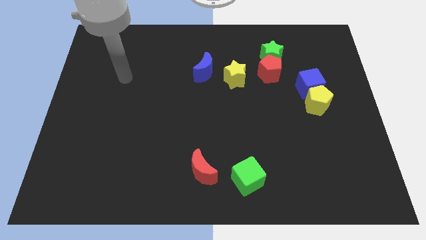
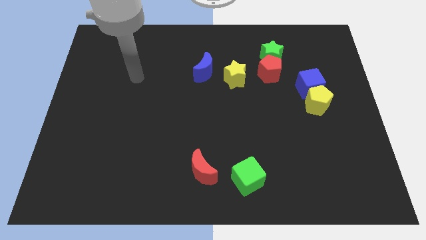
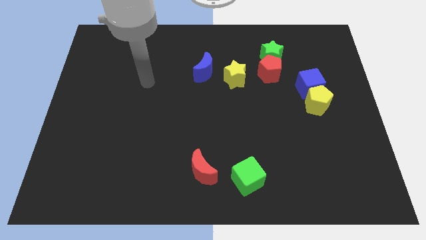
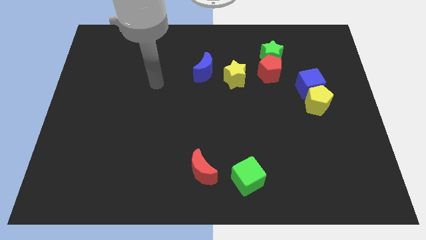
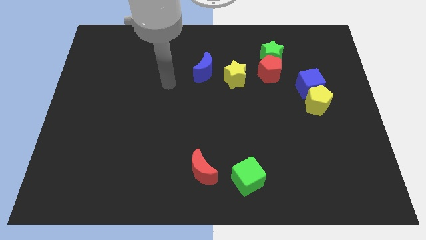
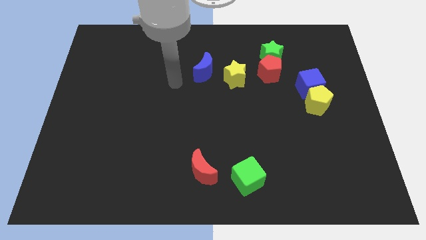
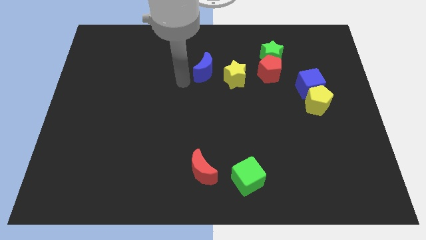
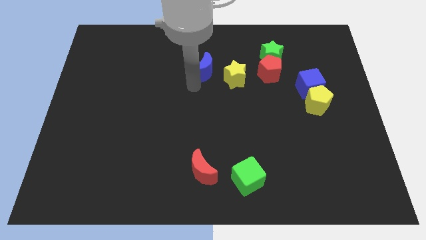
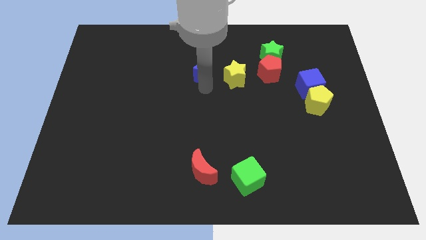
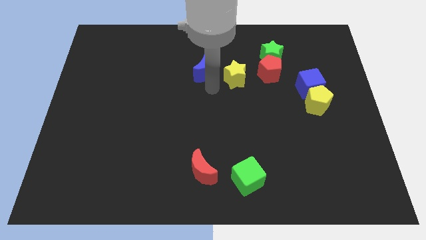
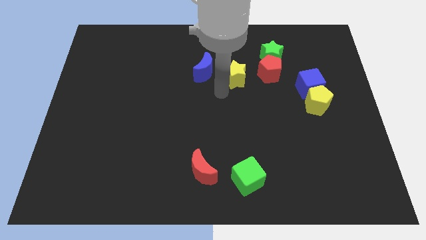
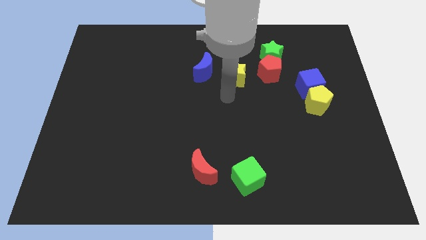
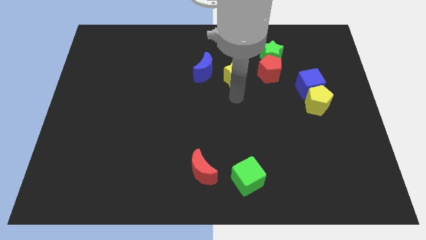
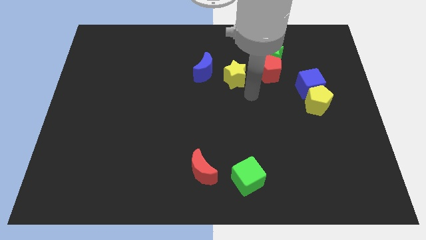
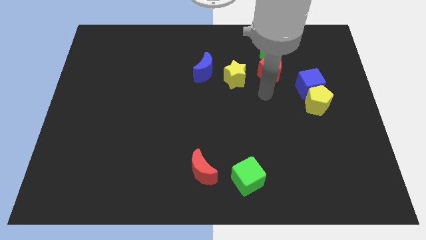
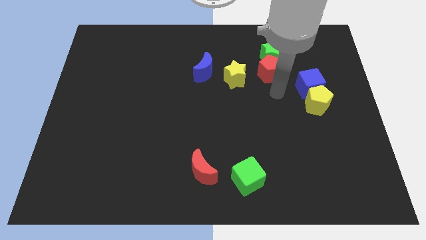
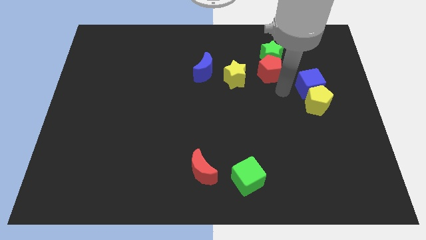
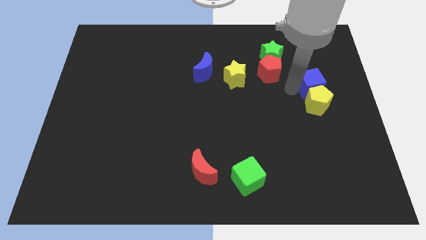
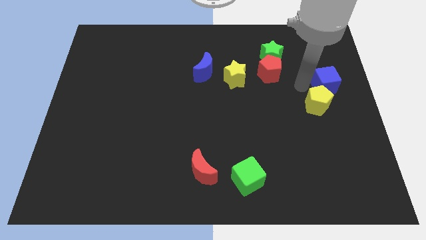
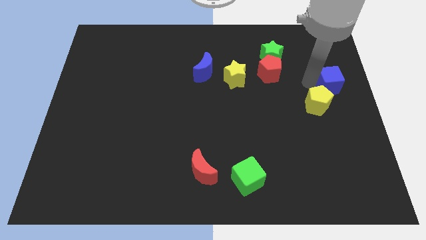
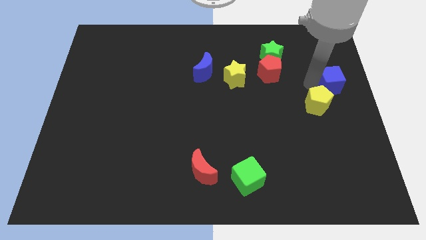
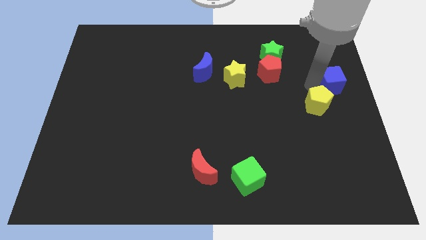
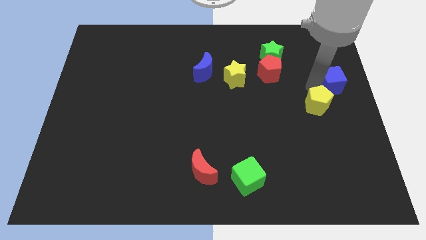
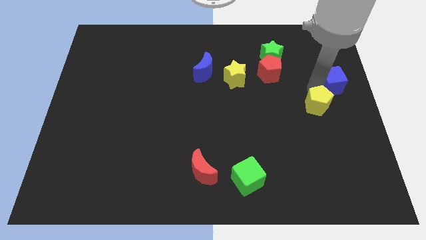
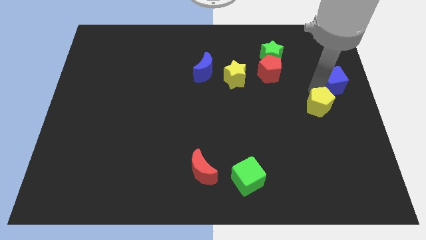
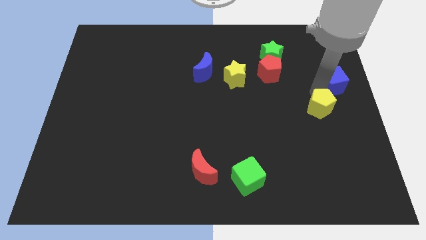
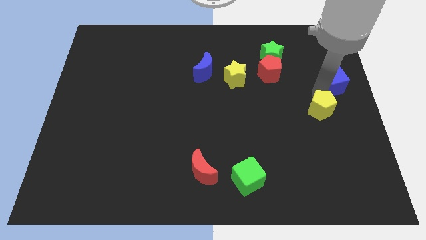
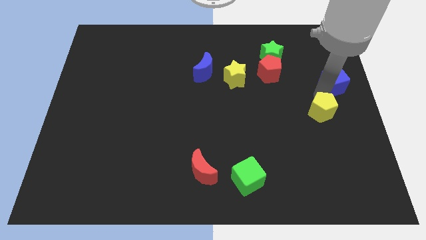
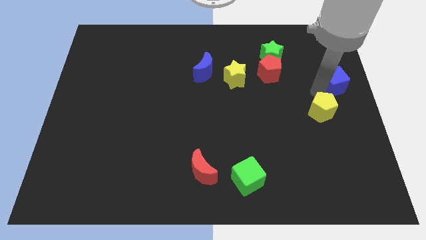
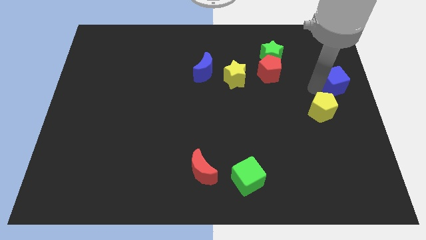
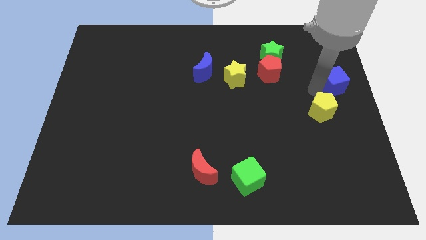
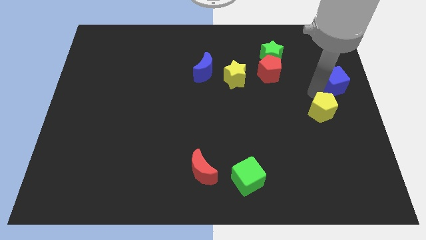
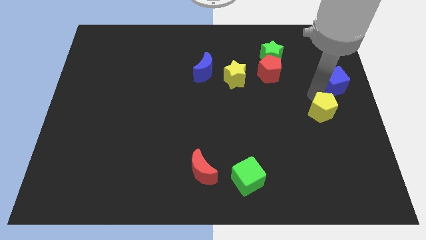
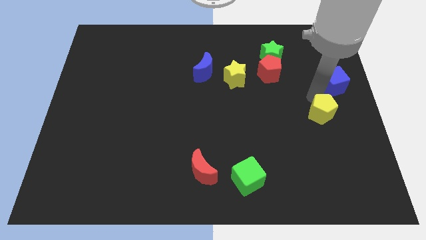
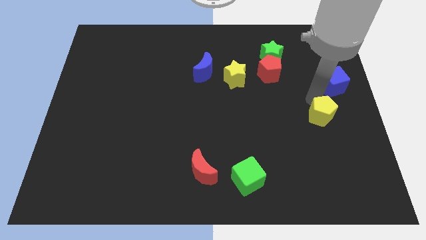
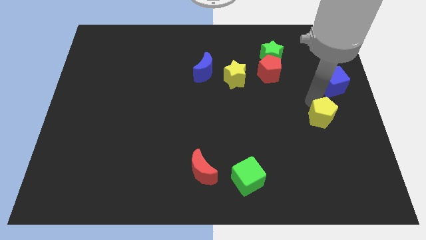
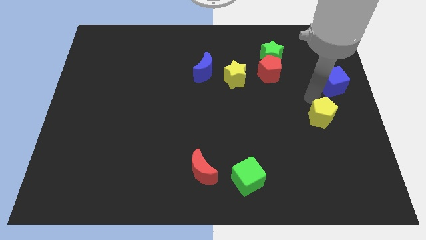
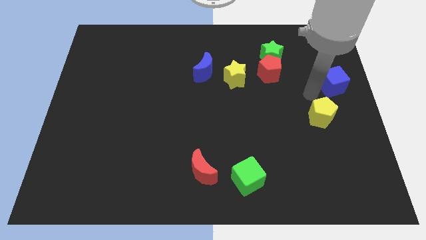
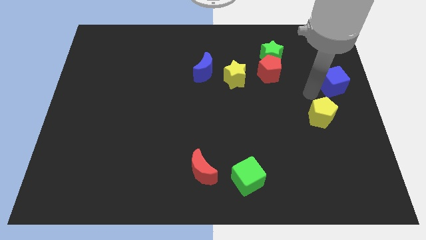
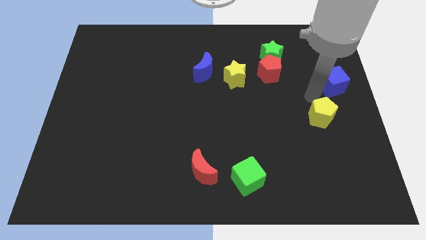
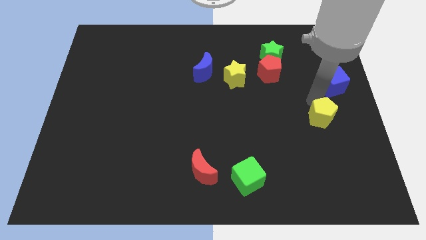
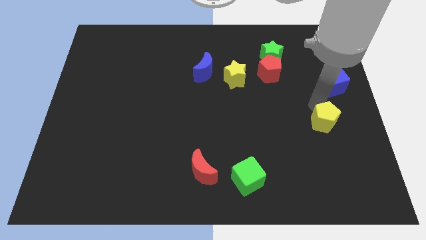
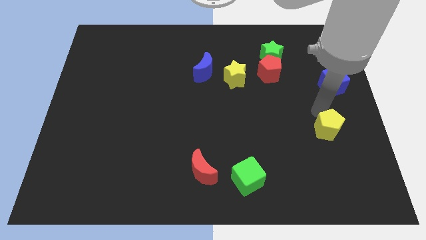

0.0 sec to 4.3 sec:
slightly push the yellow pentagon down

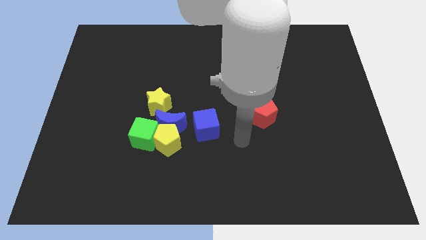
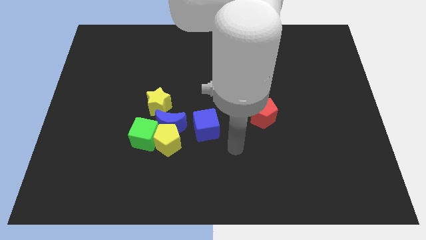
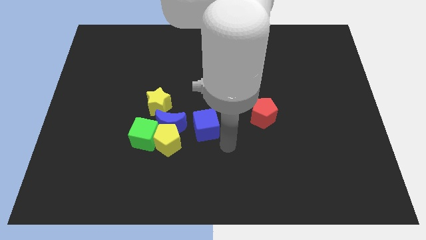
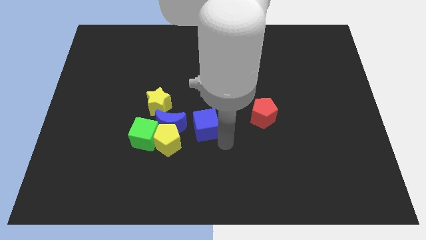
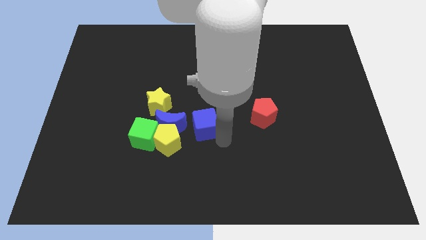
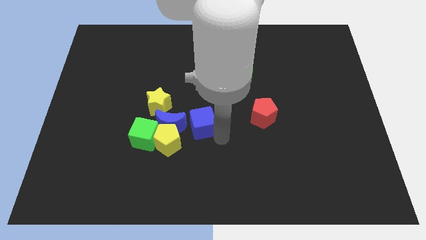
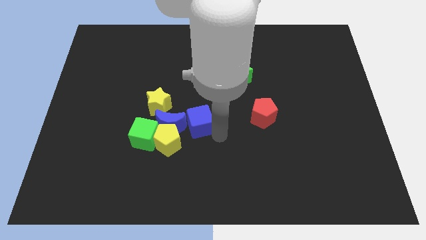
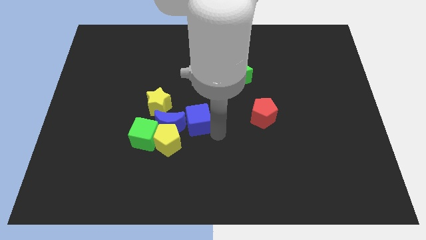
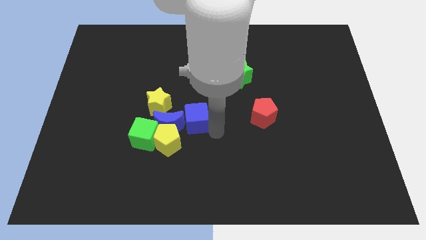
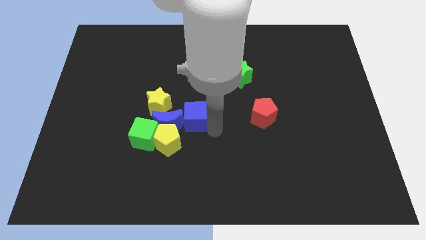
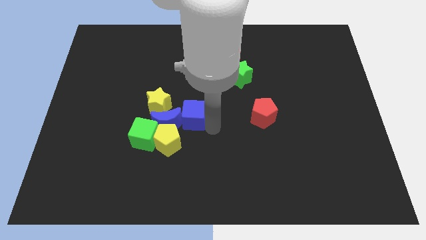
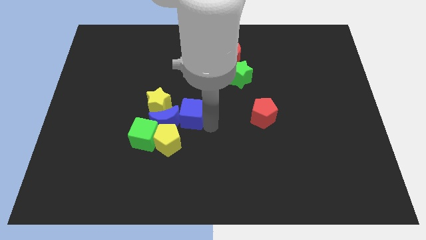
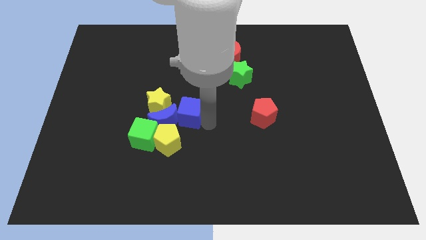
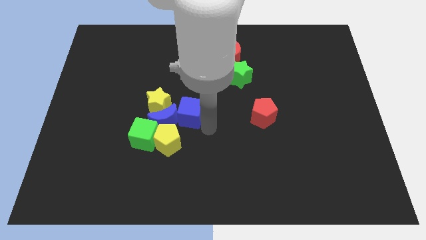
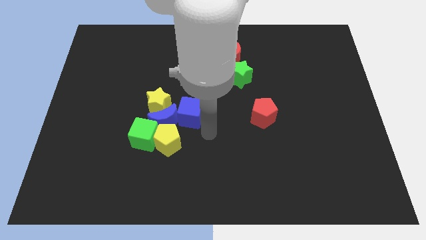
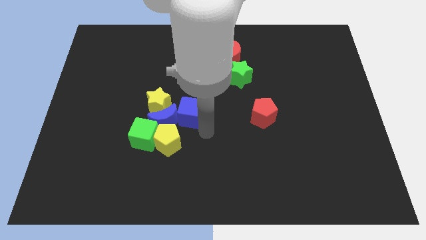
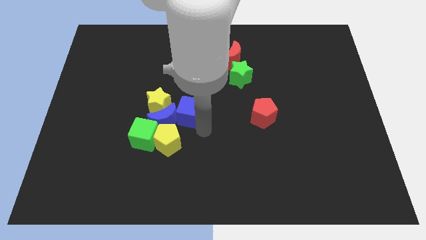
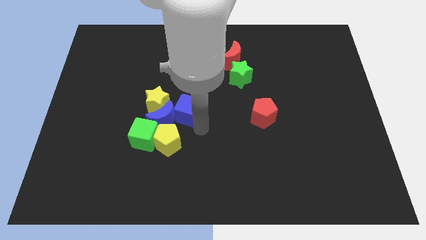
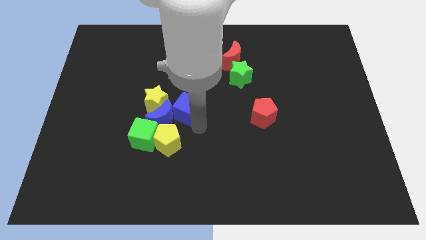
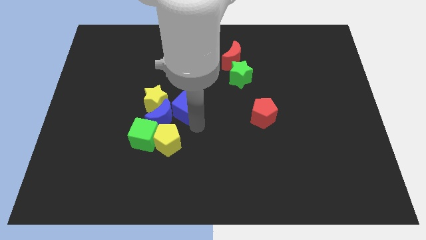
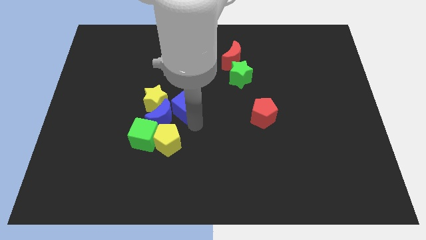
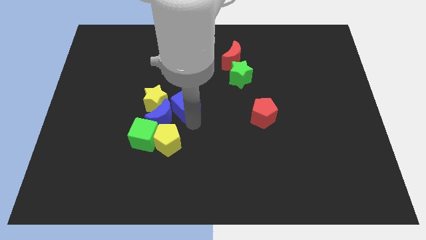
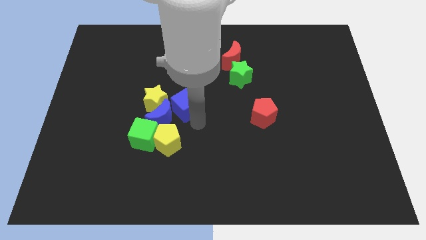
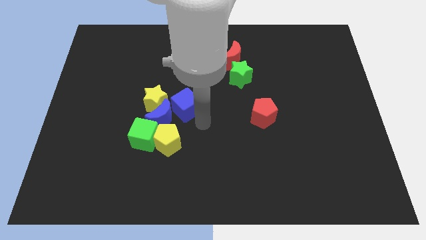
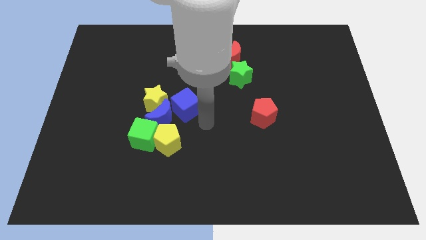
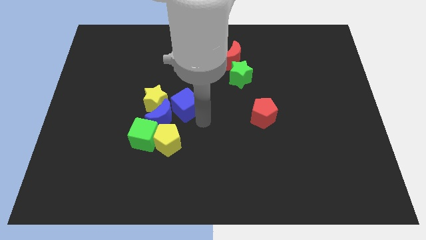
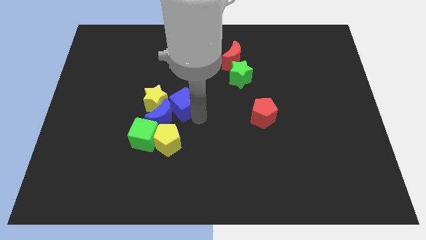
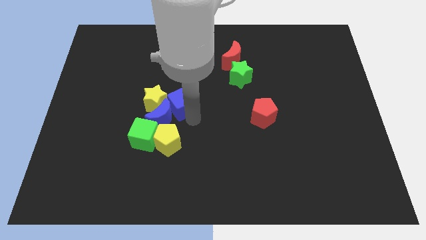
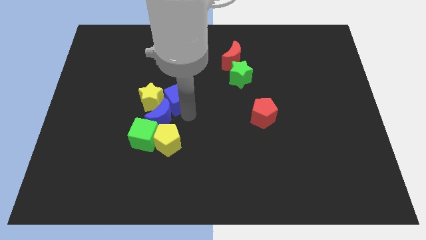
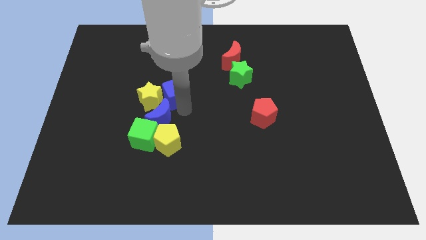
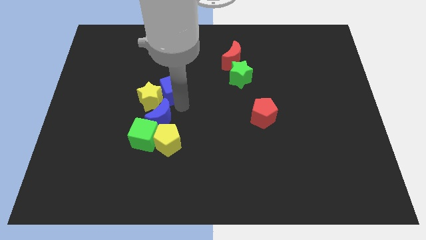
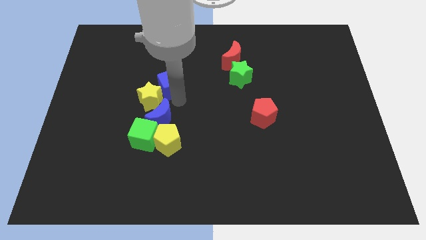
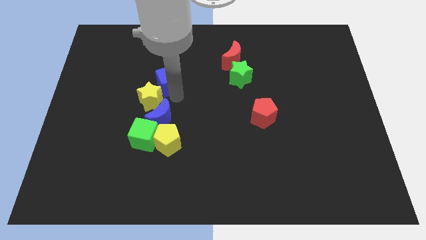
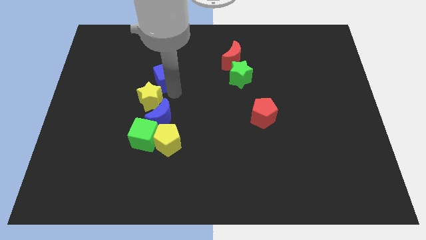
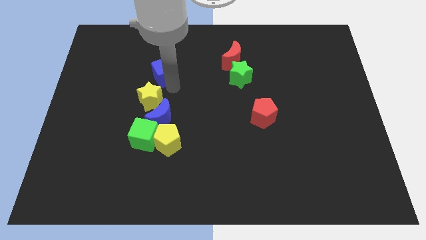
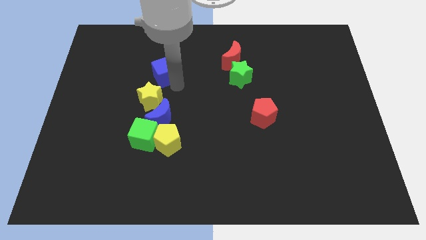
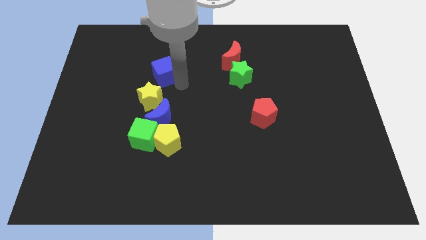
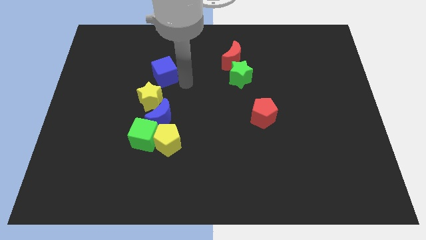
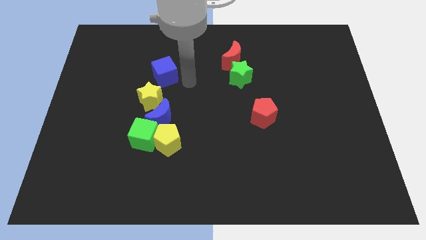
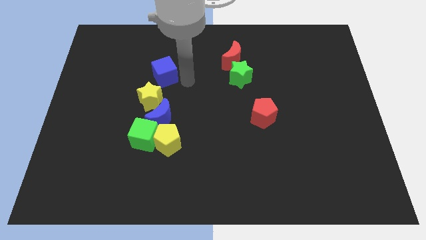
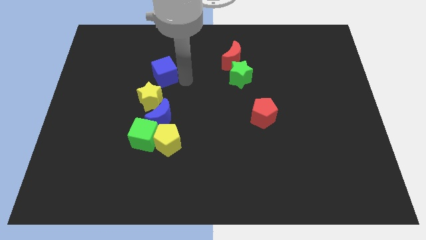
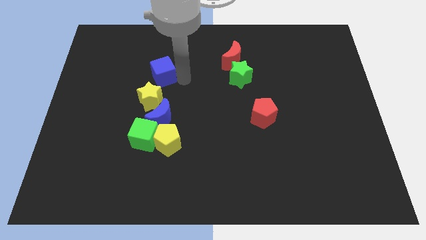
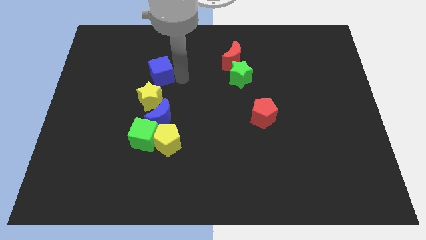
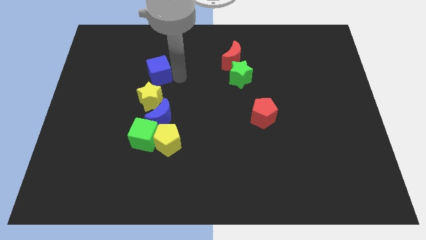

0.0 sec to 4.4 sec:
slide the blue cube up and to the left diagonally
